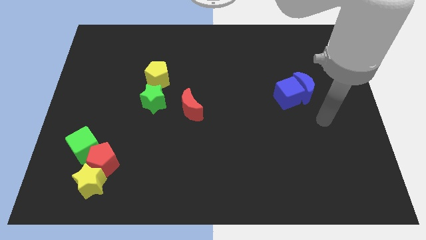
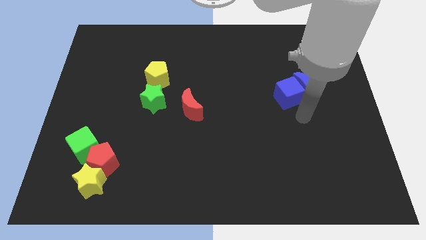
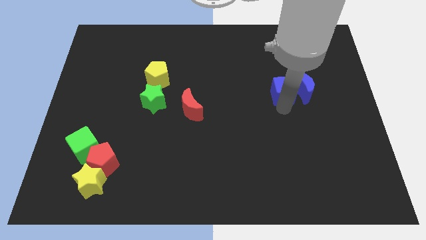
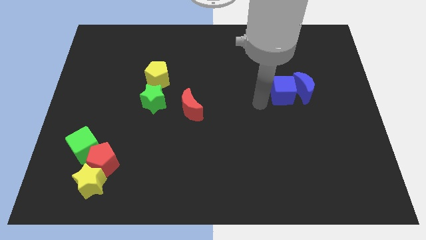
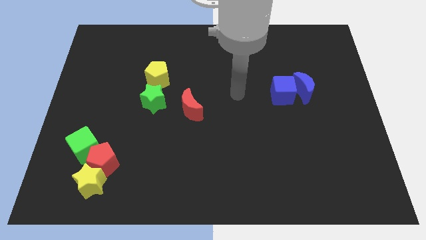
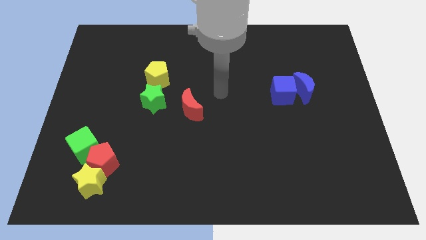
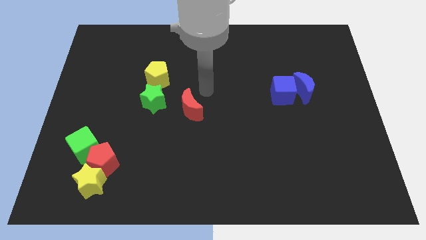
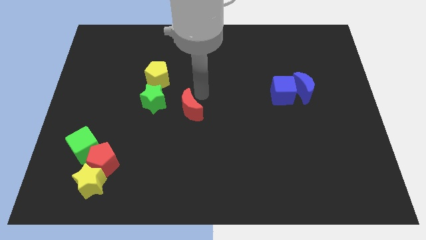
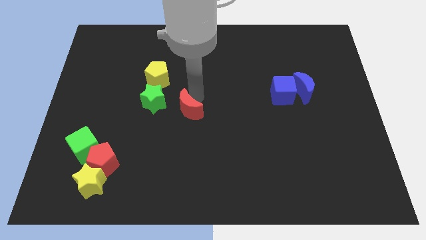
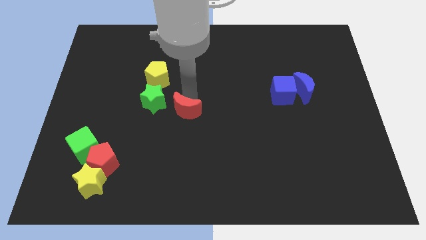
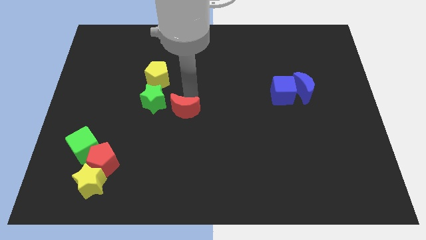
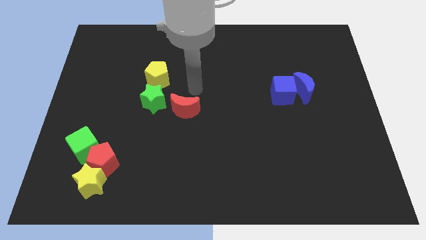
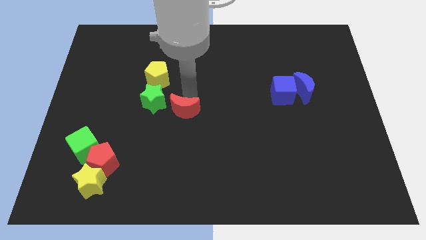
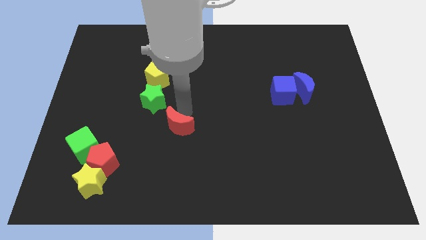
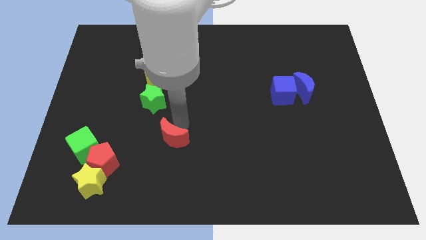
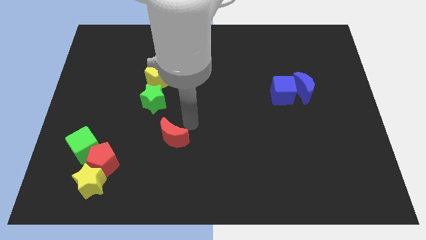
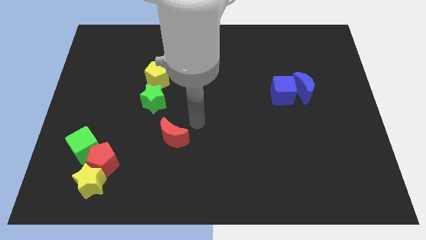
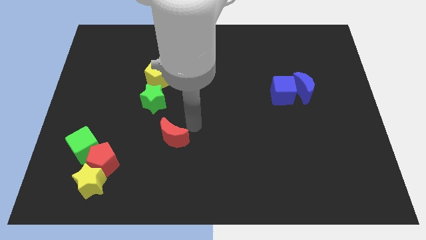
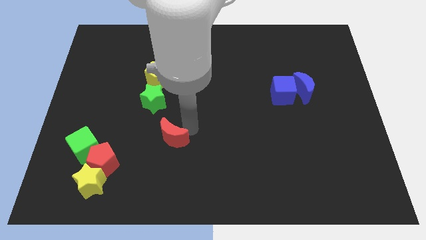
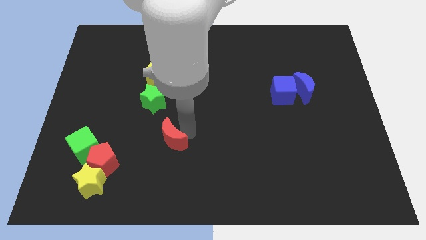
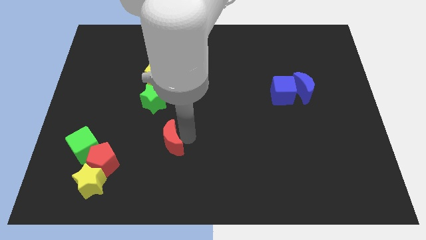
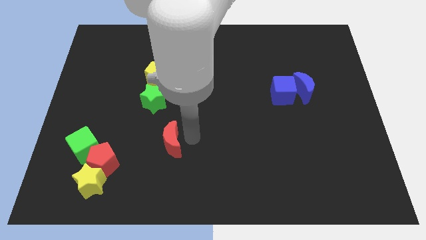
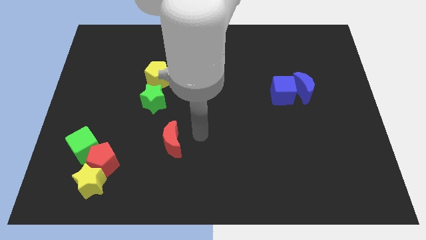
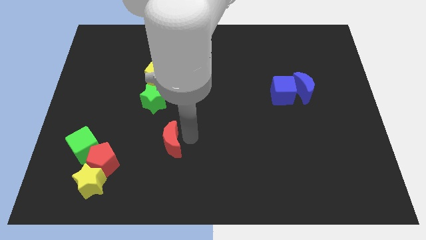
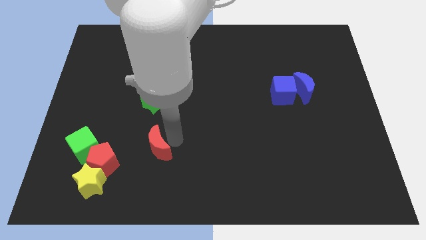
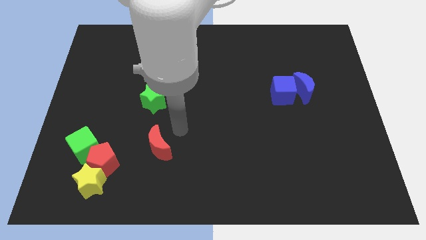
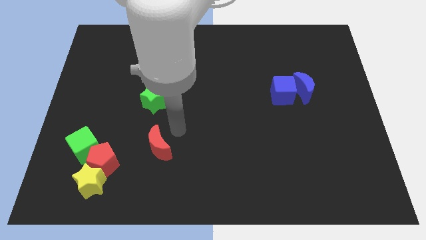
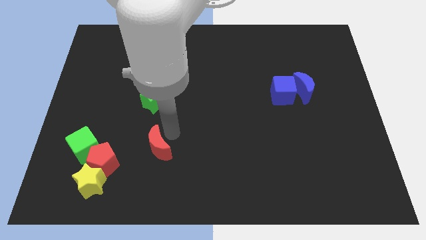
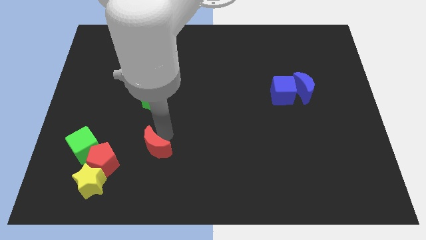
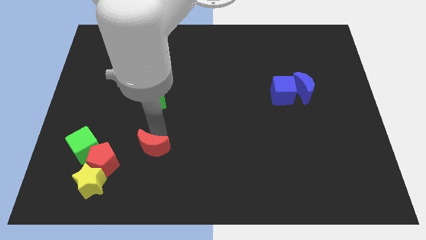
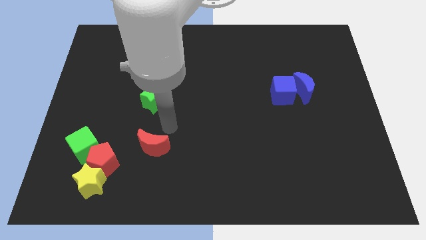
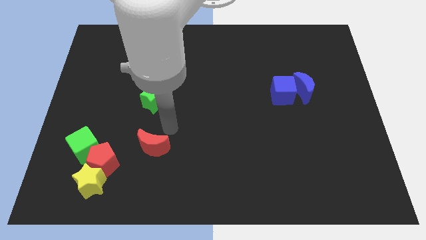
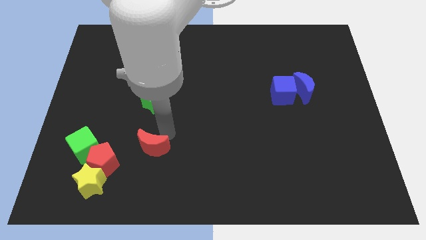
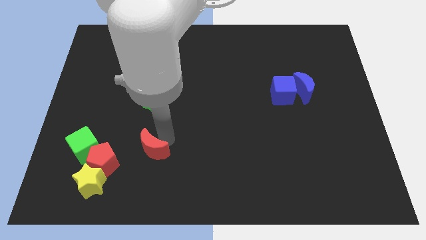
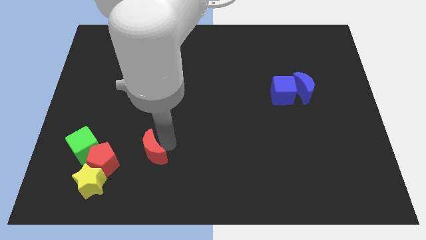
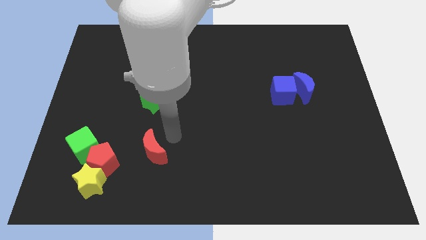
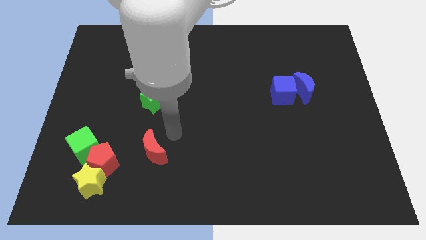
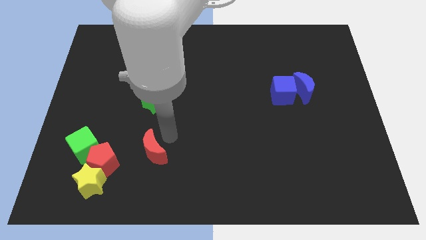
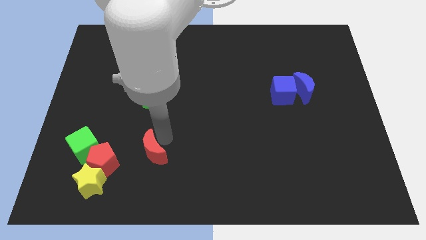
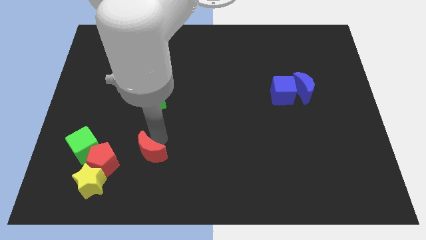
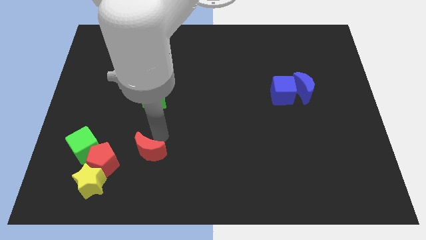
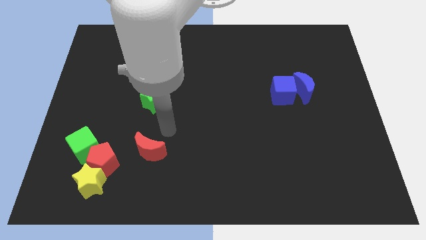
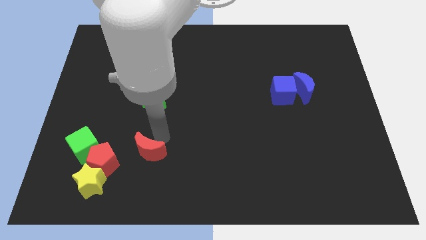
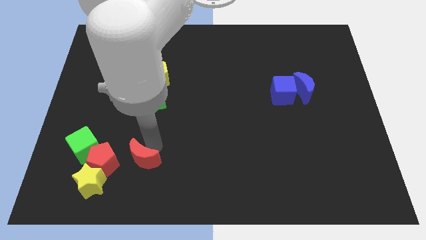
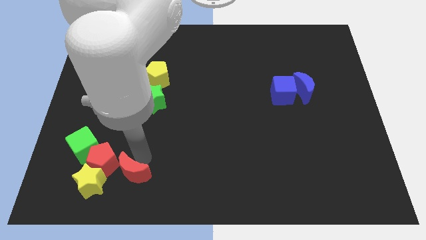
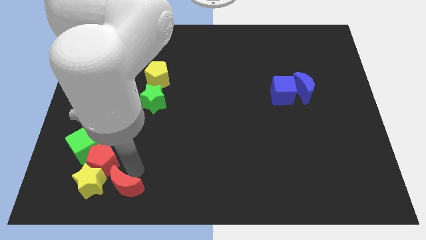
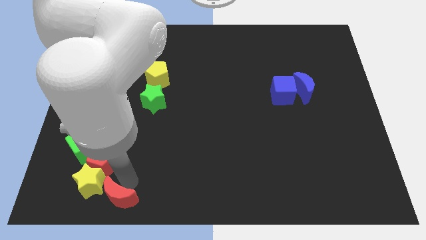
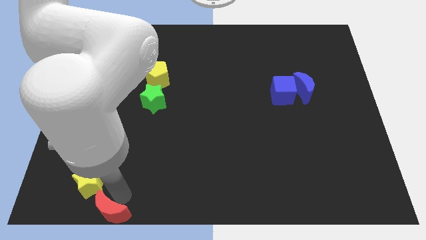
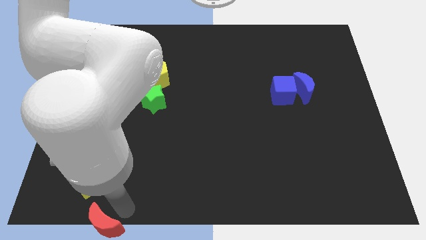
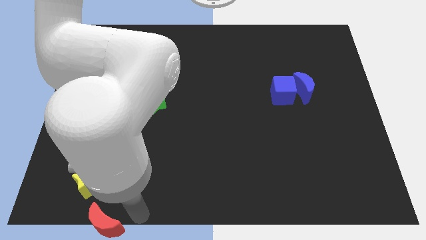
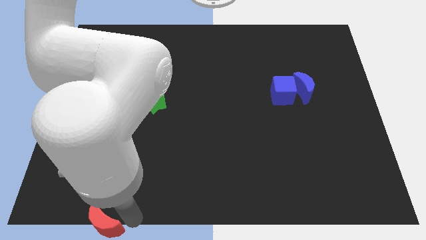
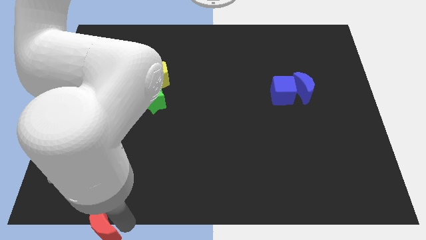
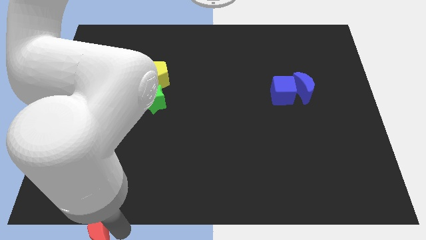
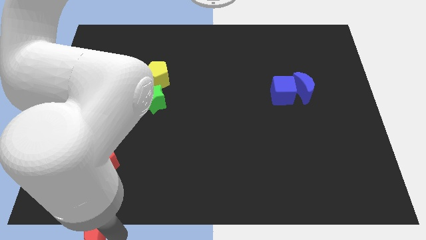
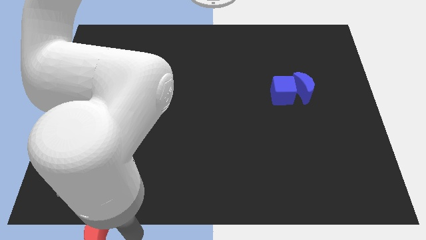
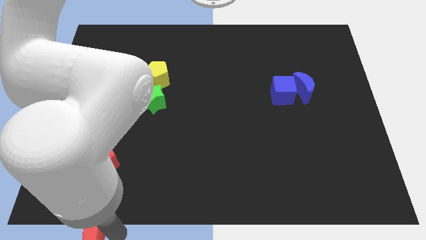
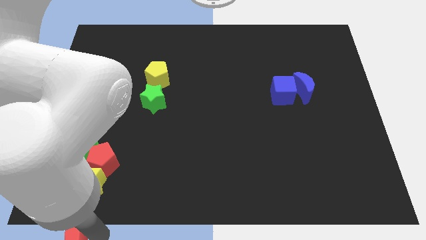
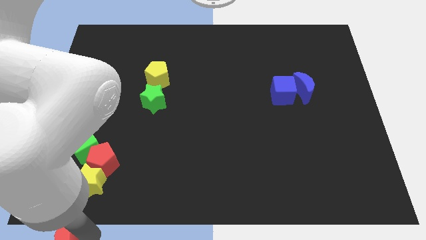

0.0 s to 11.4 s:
put the red moon to the bottom left of the board
